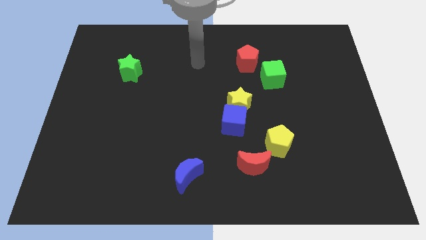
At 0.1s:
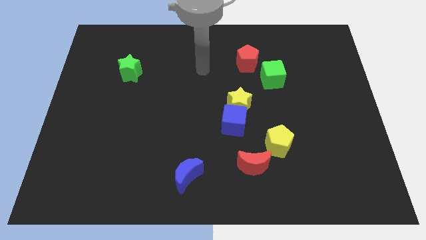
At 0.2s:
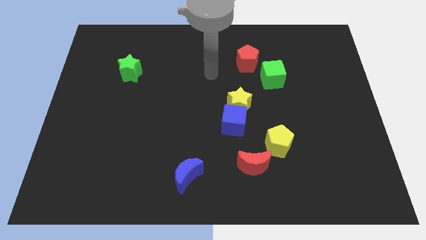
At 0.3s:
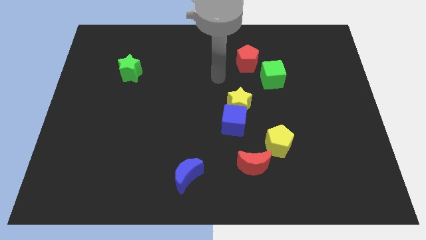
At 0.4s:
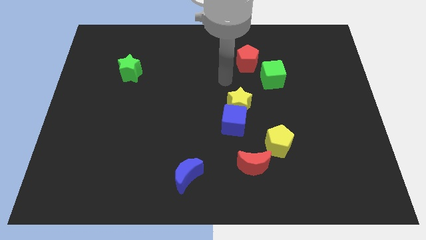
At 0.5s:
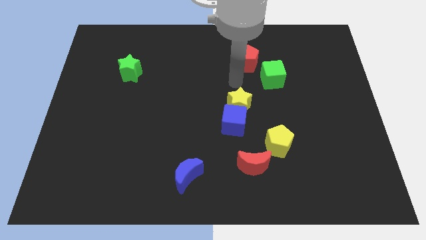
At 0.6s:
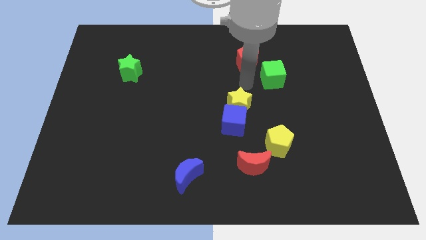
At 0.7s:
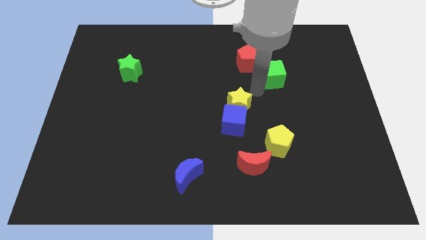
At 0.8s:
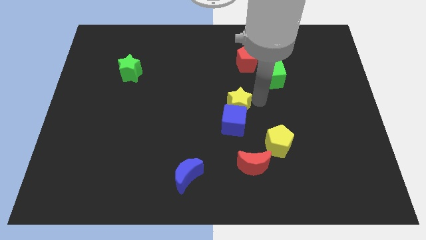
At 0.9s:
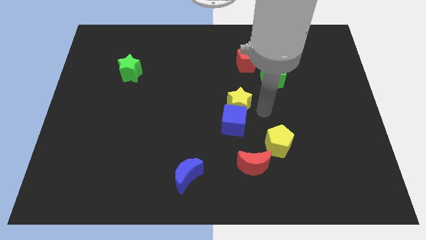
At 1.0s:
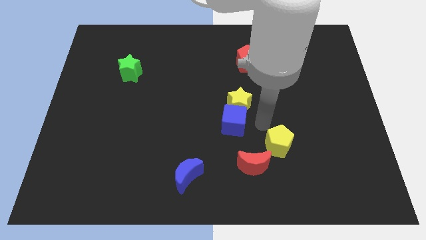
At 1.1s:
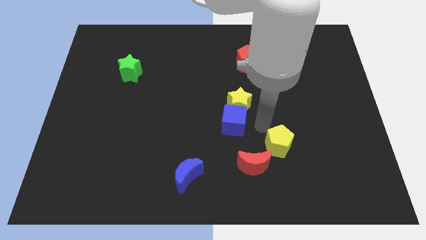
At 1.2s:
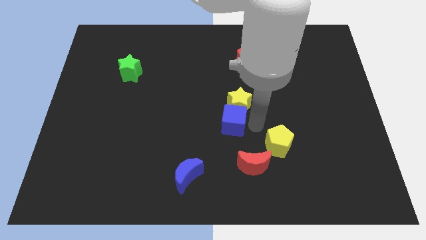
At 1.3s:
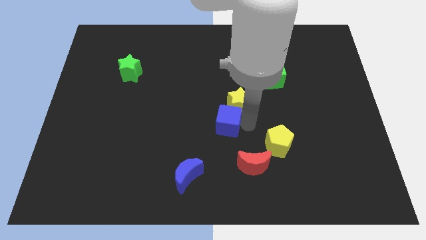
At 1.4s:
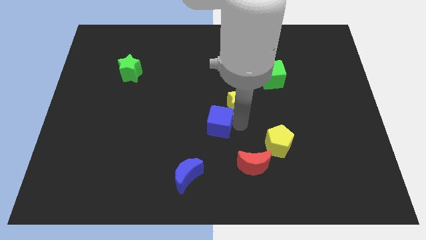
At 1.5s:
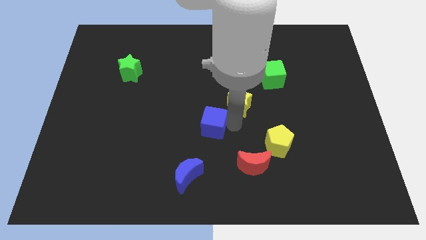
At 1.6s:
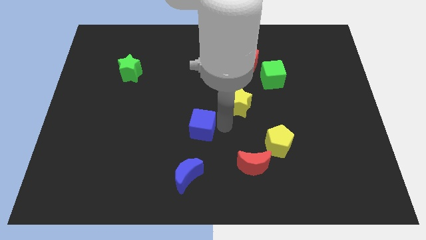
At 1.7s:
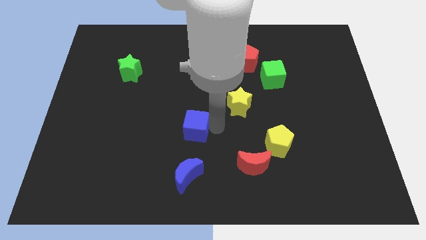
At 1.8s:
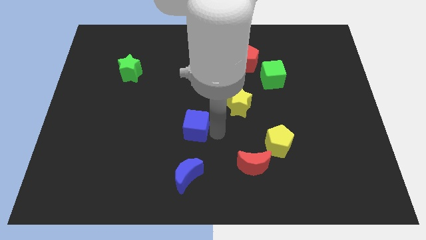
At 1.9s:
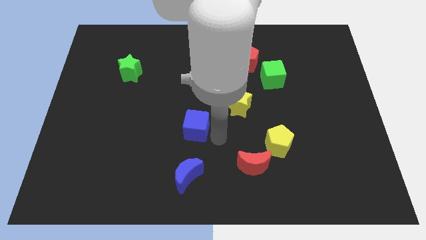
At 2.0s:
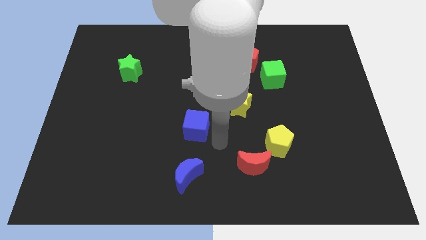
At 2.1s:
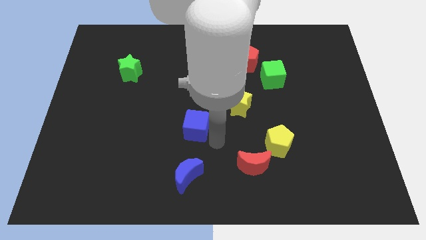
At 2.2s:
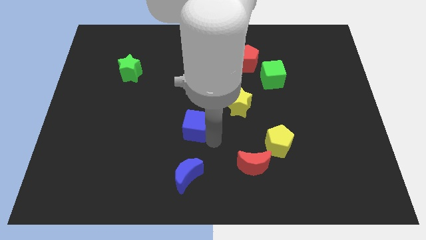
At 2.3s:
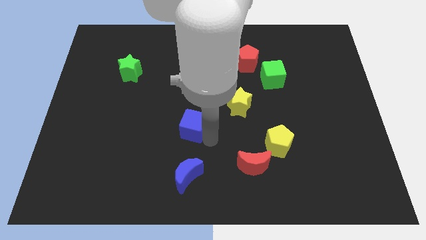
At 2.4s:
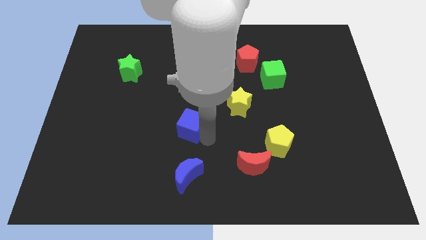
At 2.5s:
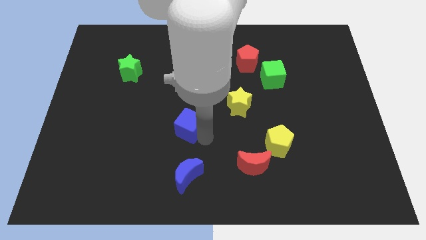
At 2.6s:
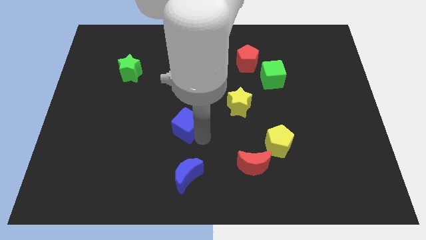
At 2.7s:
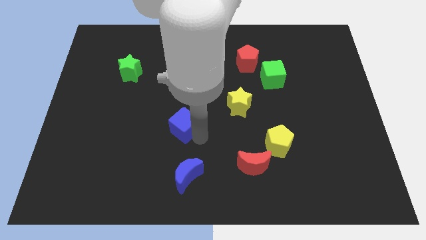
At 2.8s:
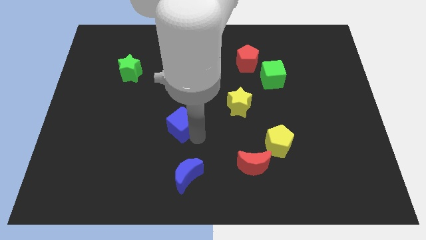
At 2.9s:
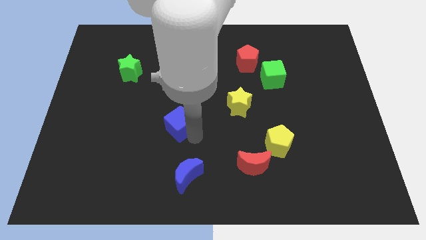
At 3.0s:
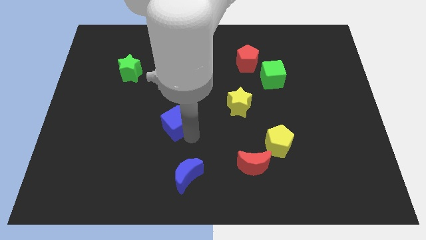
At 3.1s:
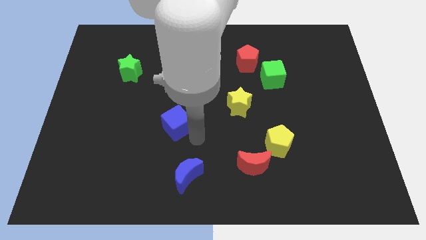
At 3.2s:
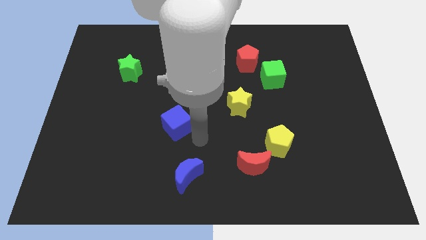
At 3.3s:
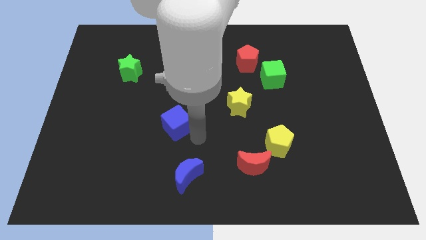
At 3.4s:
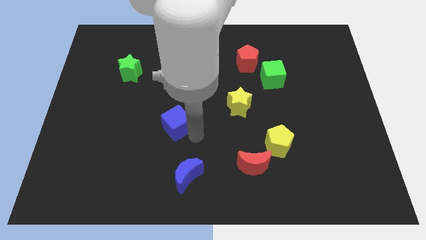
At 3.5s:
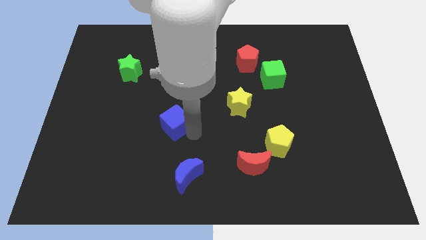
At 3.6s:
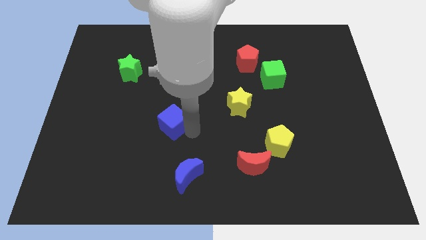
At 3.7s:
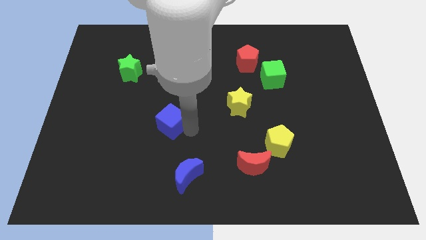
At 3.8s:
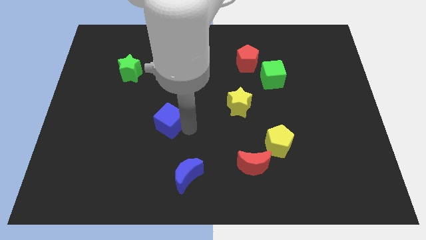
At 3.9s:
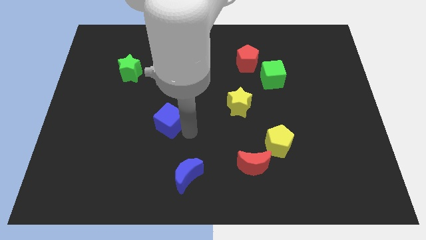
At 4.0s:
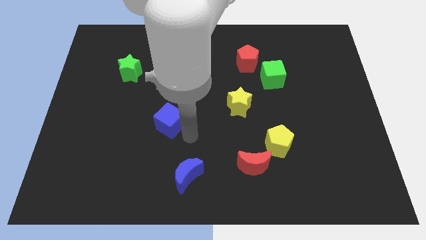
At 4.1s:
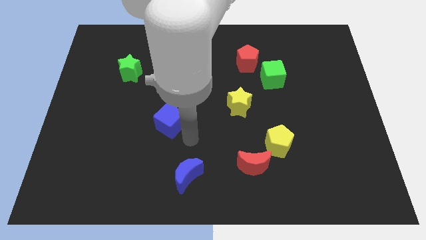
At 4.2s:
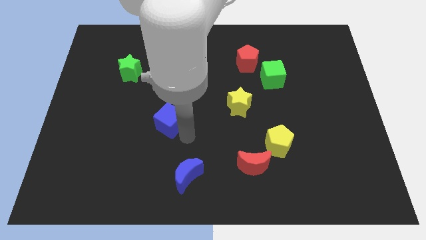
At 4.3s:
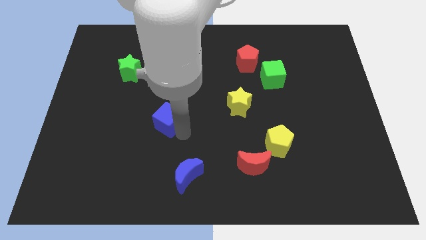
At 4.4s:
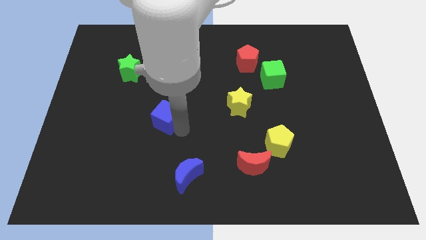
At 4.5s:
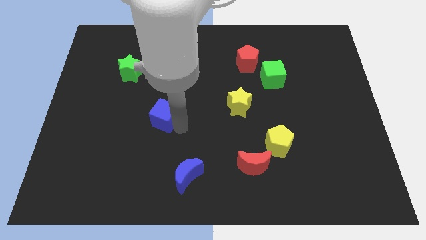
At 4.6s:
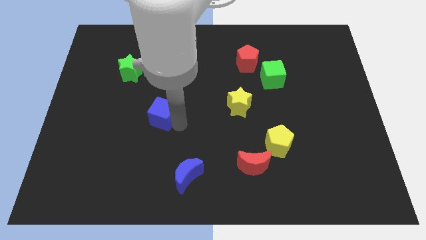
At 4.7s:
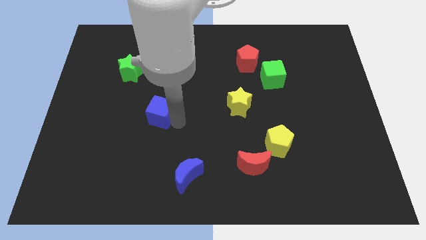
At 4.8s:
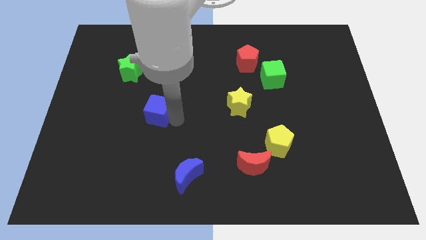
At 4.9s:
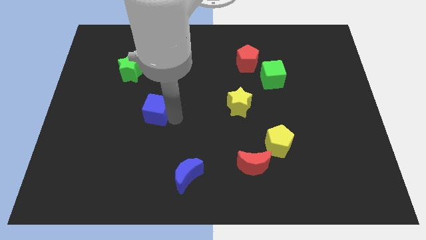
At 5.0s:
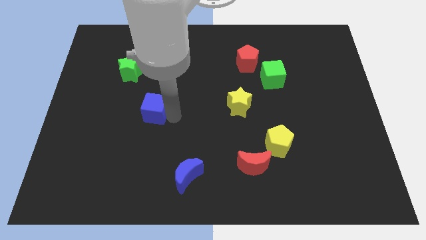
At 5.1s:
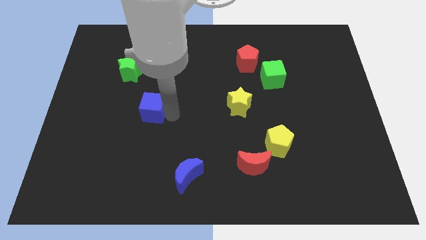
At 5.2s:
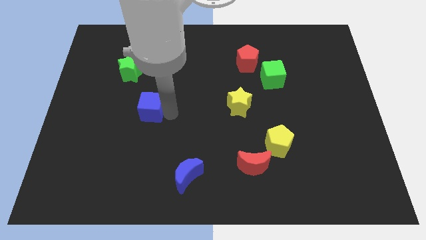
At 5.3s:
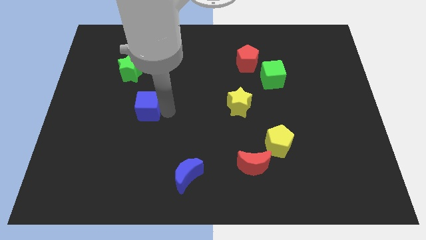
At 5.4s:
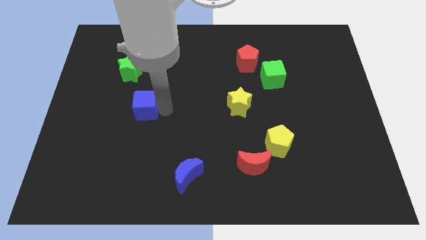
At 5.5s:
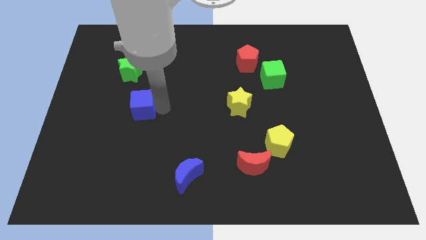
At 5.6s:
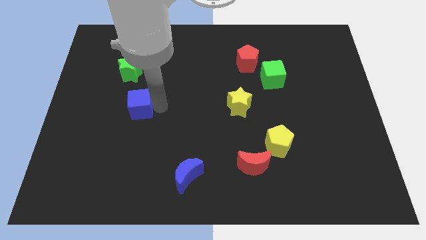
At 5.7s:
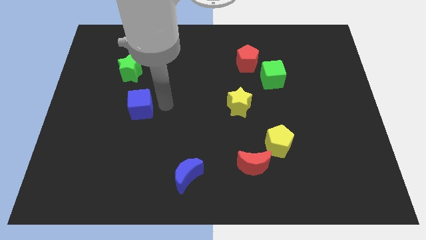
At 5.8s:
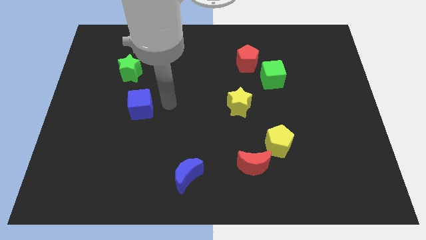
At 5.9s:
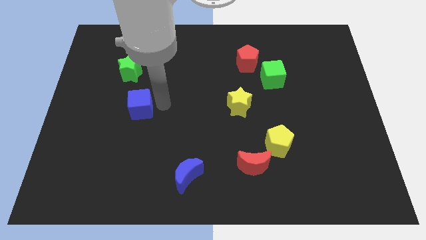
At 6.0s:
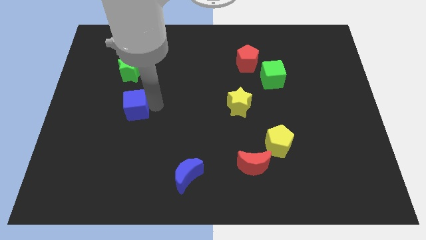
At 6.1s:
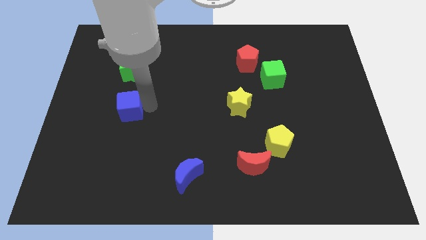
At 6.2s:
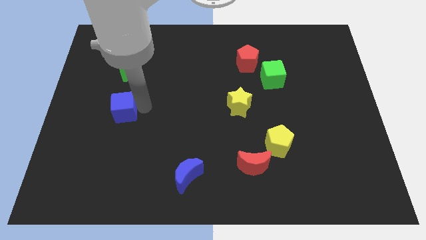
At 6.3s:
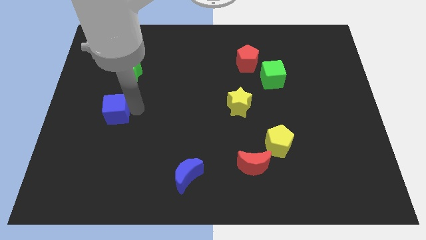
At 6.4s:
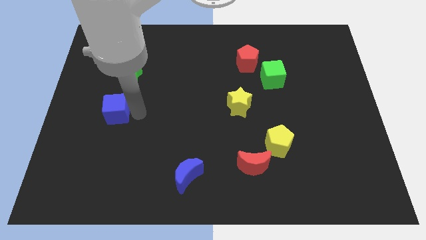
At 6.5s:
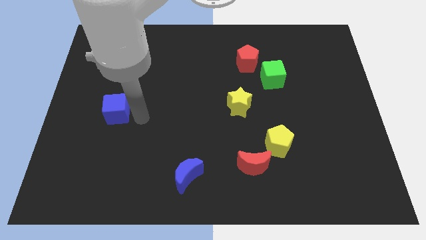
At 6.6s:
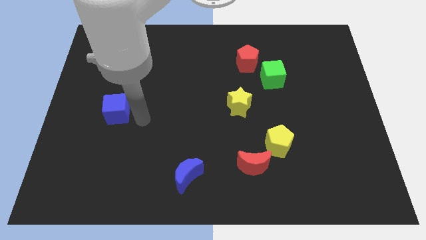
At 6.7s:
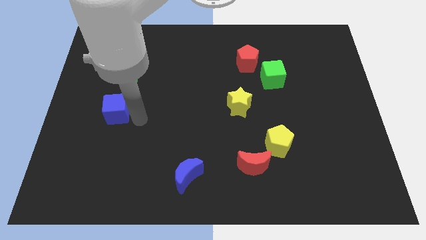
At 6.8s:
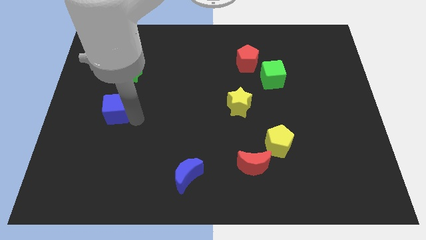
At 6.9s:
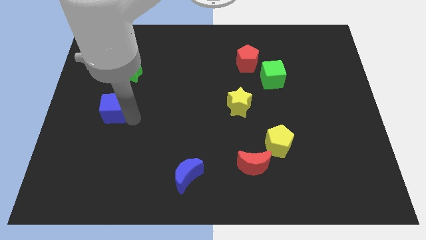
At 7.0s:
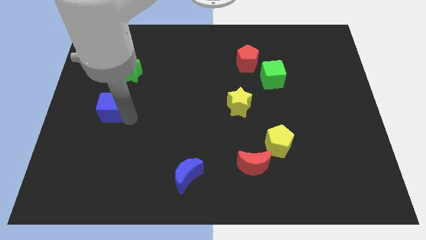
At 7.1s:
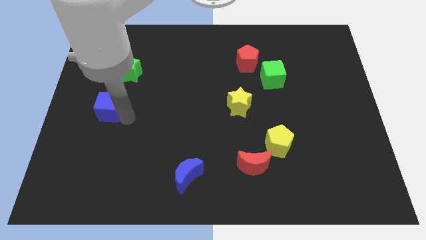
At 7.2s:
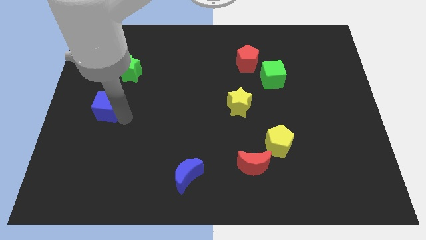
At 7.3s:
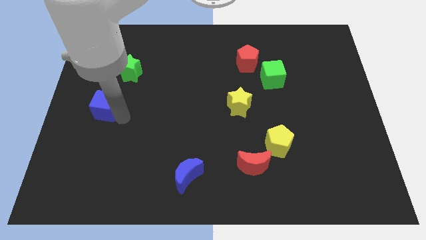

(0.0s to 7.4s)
put the blue cube to the left side
